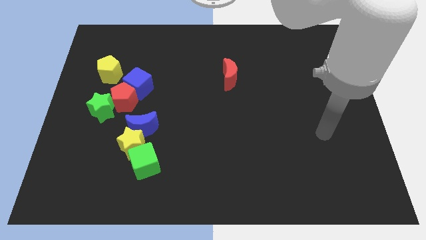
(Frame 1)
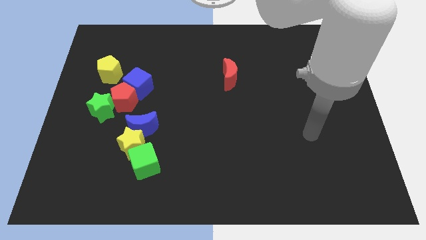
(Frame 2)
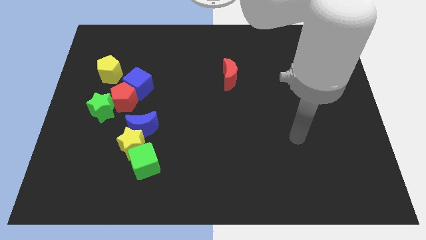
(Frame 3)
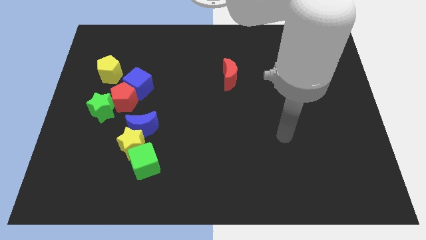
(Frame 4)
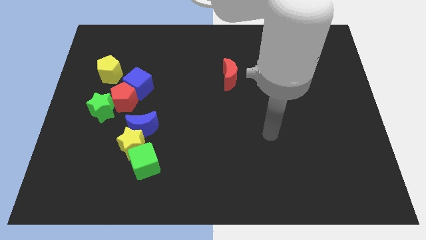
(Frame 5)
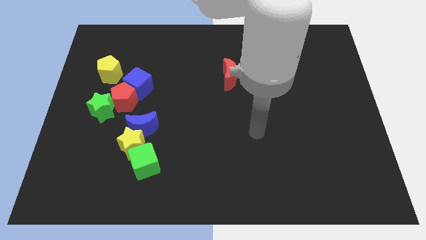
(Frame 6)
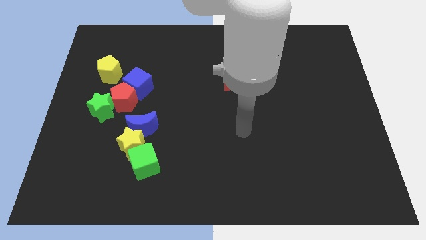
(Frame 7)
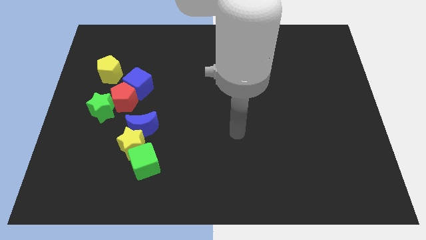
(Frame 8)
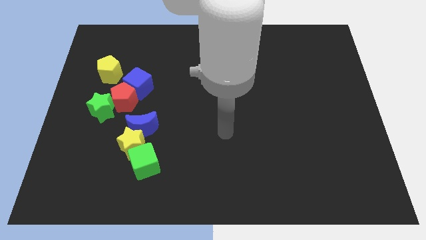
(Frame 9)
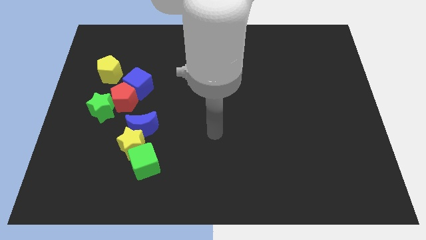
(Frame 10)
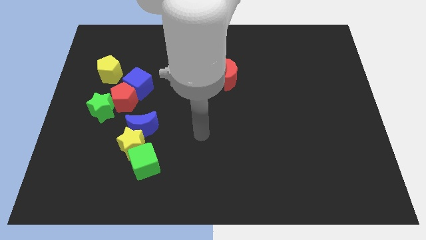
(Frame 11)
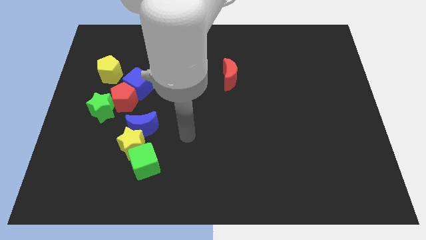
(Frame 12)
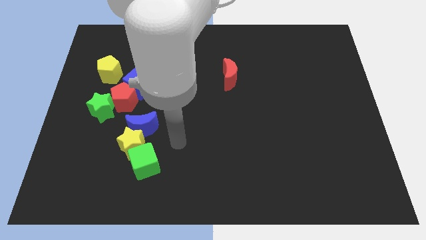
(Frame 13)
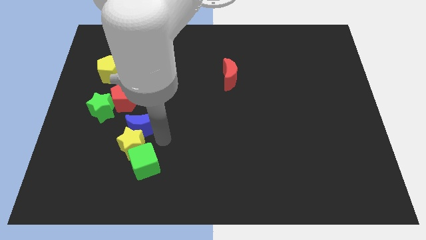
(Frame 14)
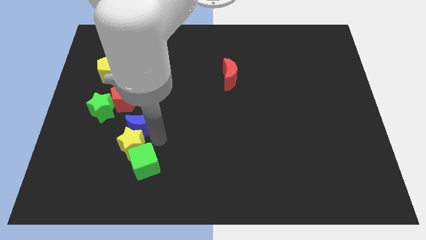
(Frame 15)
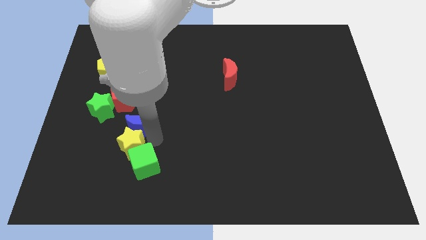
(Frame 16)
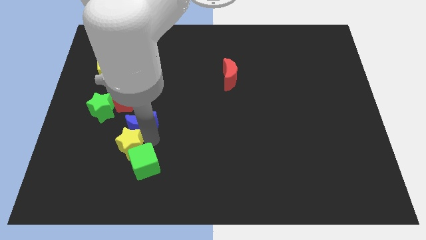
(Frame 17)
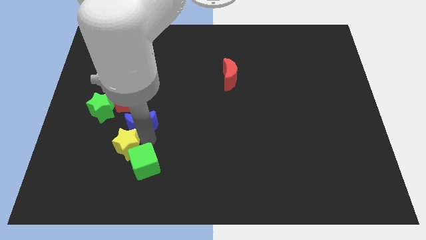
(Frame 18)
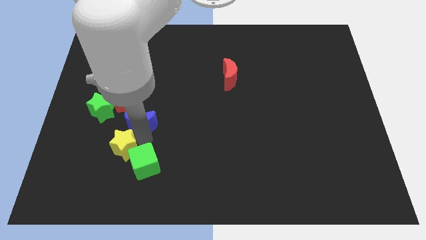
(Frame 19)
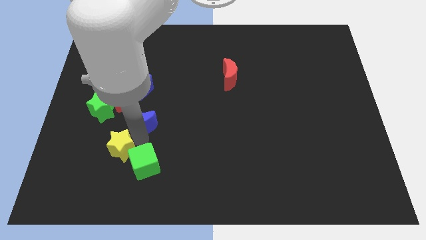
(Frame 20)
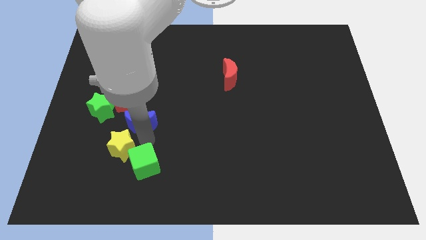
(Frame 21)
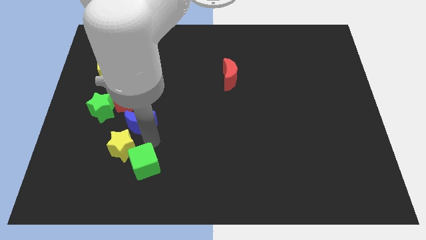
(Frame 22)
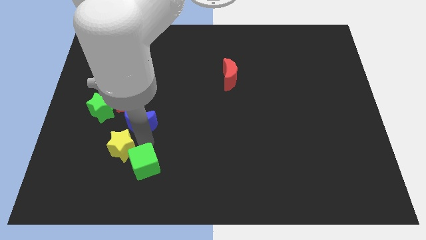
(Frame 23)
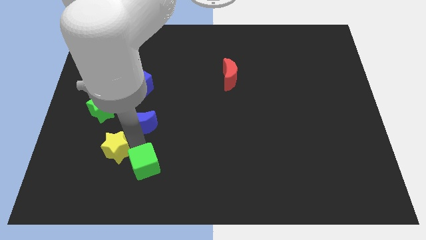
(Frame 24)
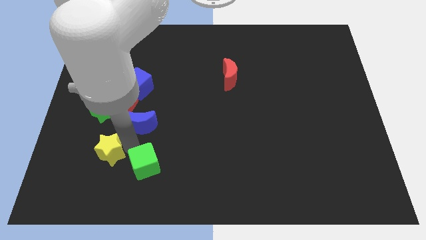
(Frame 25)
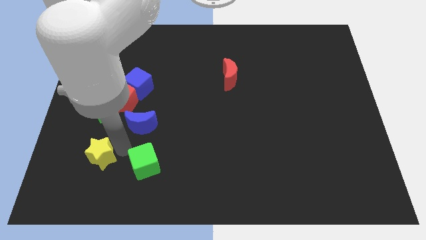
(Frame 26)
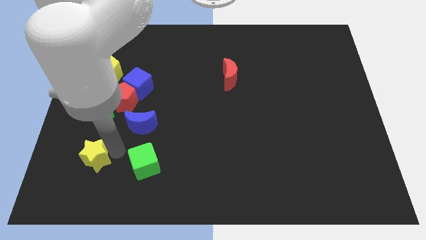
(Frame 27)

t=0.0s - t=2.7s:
pull the yellow star apart from the blue moon and green cube

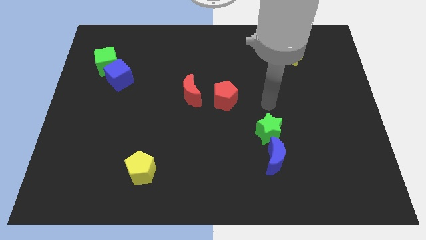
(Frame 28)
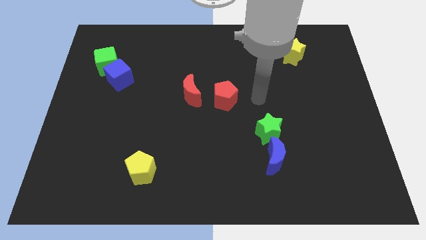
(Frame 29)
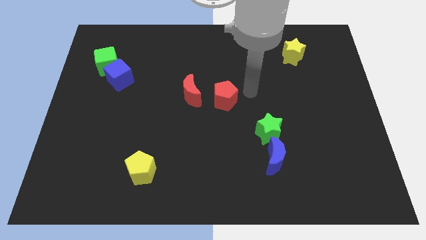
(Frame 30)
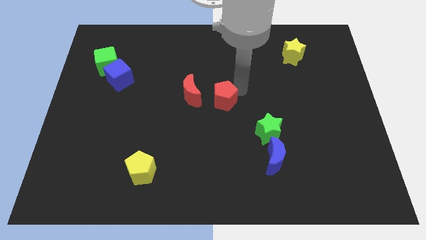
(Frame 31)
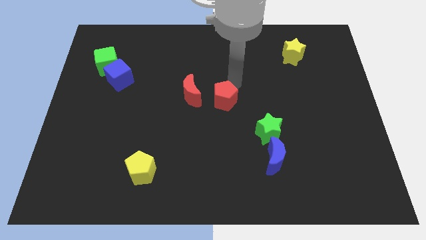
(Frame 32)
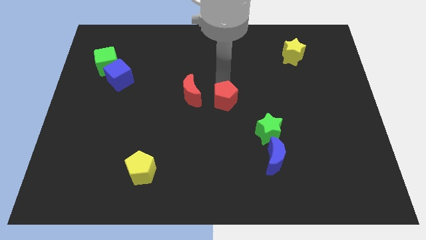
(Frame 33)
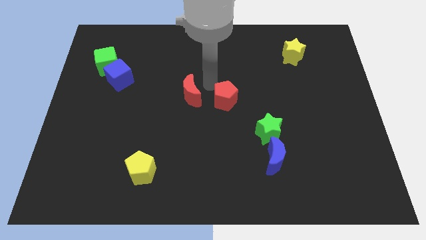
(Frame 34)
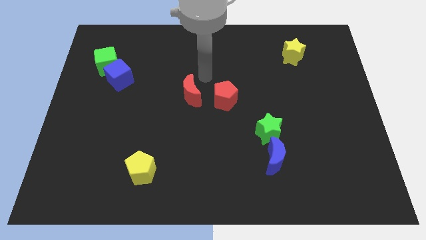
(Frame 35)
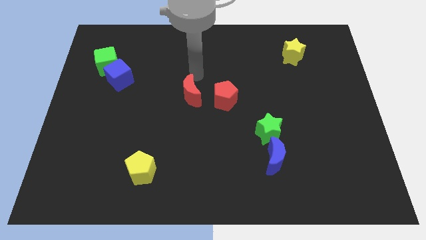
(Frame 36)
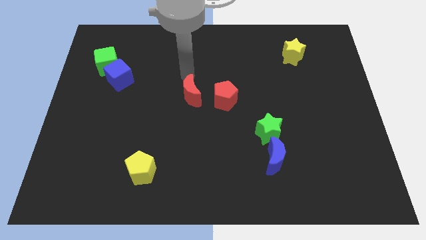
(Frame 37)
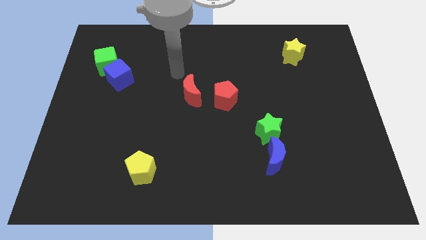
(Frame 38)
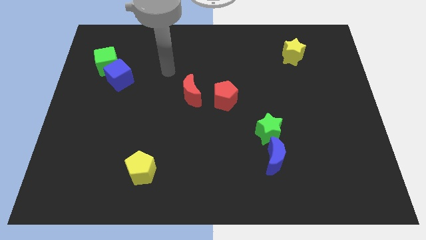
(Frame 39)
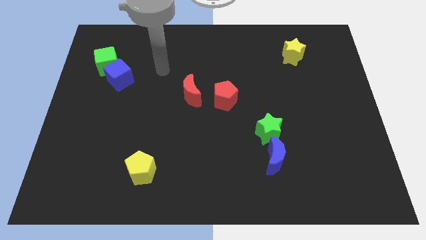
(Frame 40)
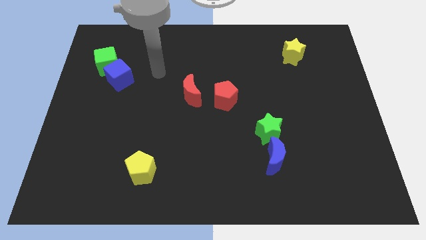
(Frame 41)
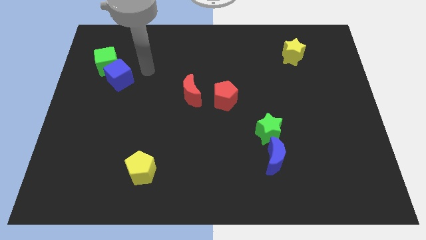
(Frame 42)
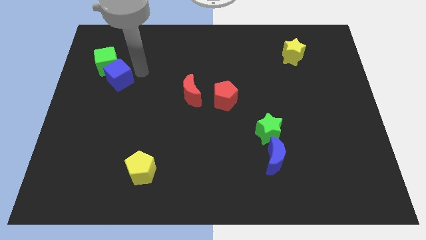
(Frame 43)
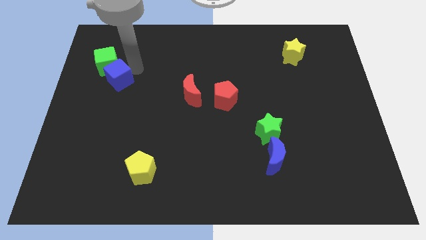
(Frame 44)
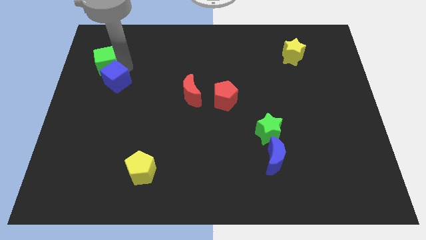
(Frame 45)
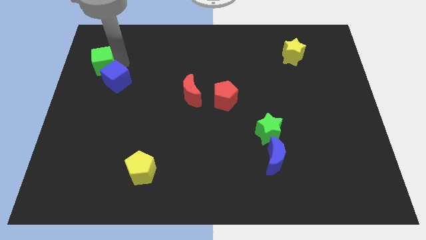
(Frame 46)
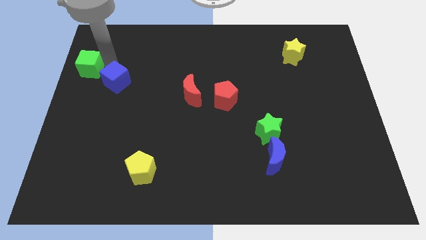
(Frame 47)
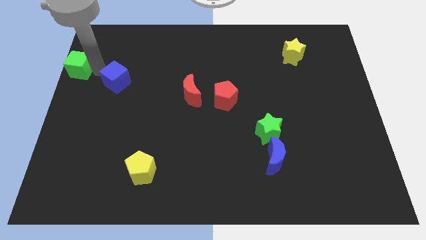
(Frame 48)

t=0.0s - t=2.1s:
separate the blue cube from the green cube

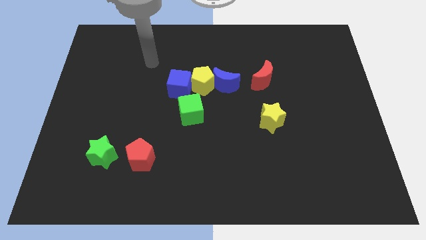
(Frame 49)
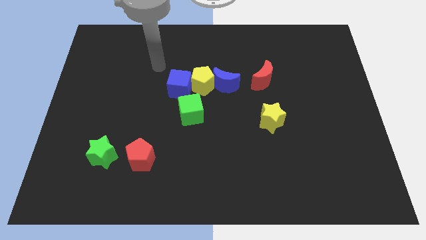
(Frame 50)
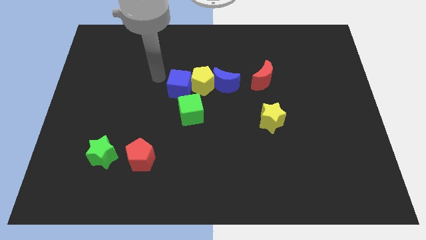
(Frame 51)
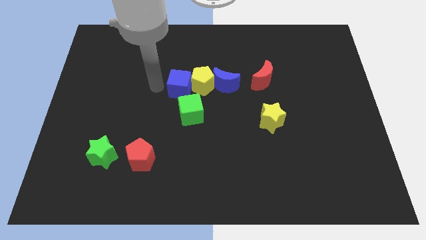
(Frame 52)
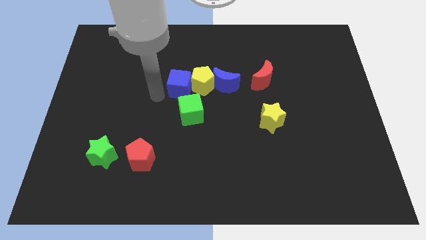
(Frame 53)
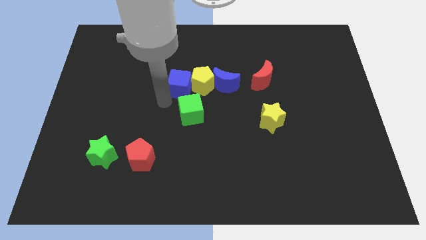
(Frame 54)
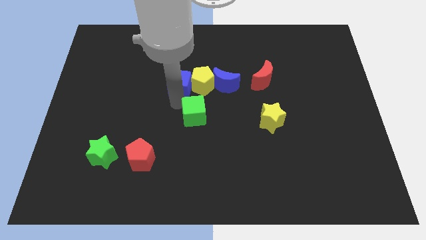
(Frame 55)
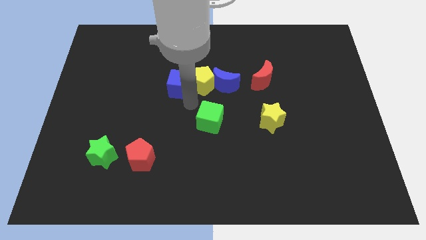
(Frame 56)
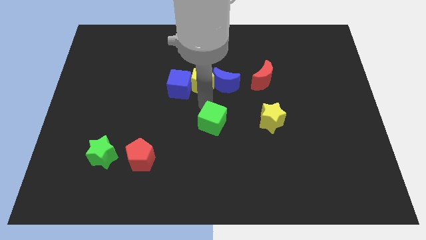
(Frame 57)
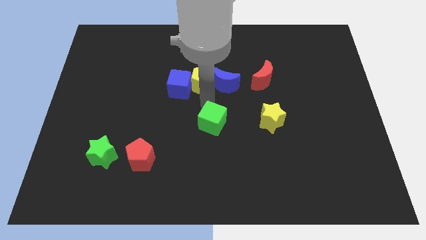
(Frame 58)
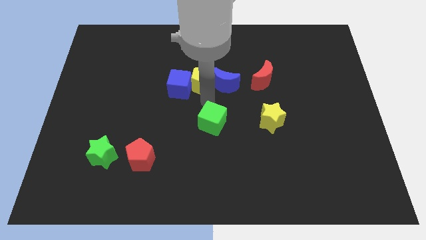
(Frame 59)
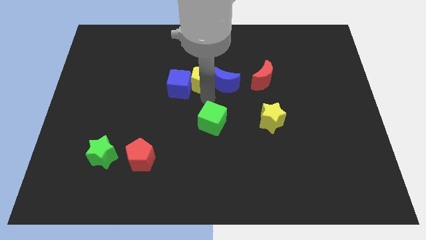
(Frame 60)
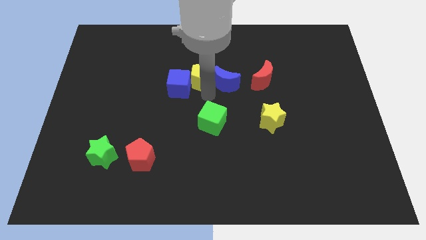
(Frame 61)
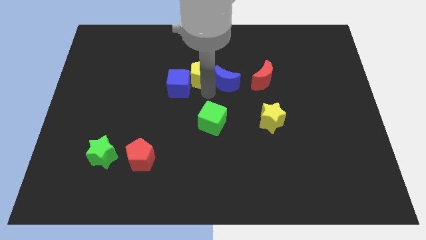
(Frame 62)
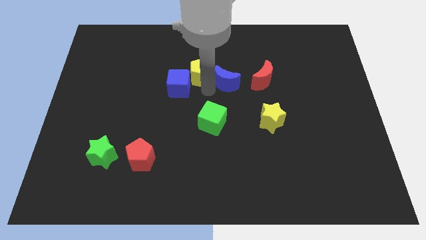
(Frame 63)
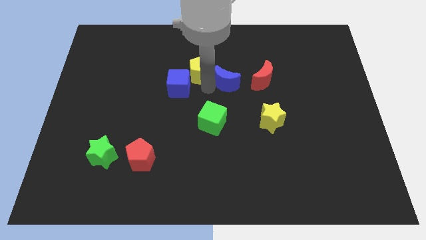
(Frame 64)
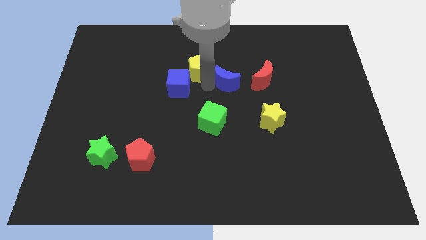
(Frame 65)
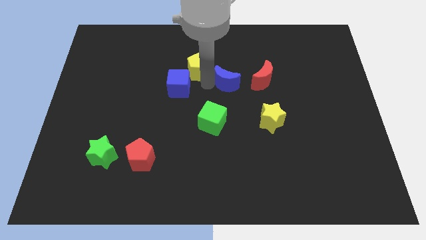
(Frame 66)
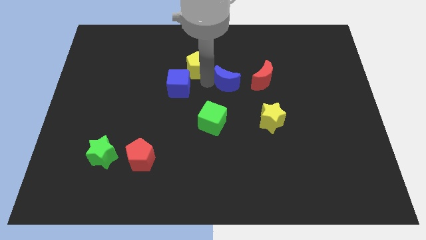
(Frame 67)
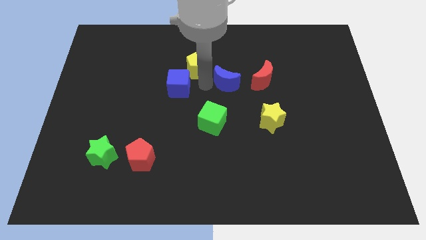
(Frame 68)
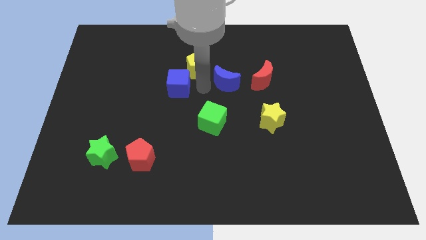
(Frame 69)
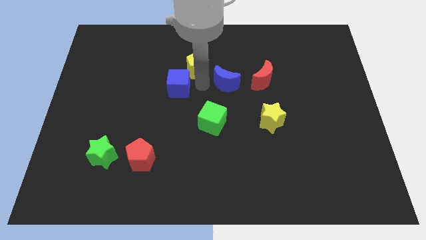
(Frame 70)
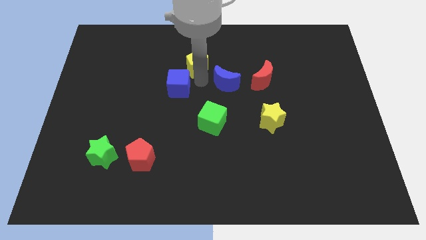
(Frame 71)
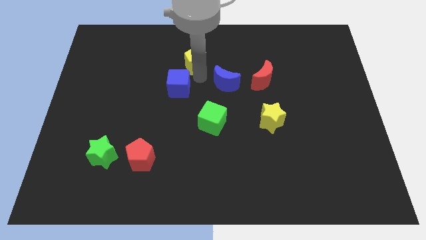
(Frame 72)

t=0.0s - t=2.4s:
separate the yellow pentagon from the blue cube, blue moon, and green cube

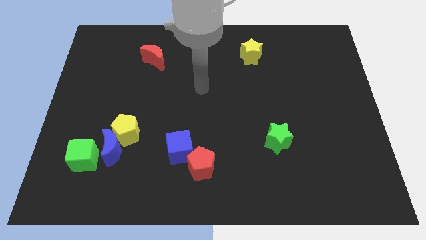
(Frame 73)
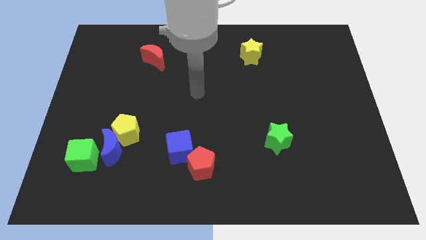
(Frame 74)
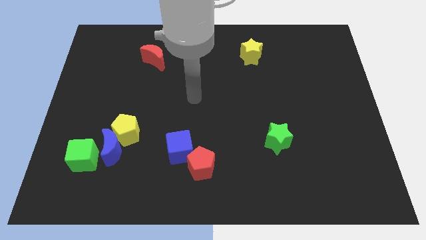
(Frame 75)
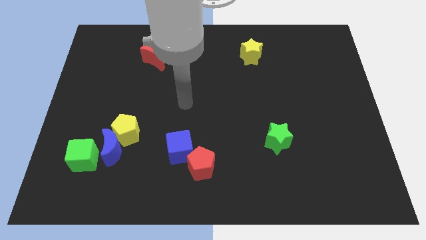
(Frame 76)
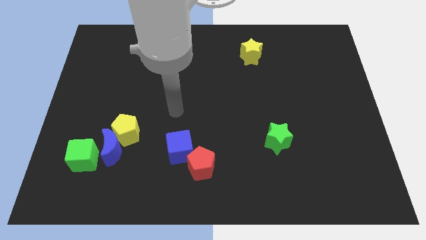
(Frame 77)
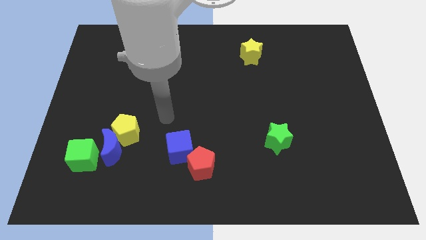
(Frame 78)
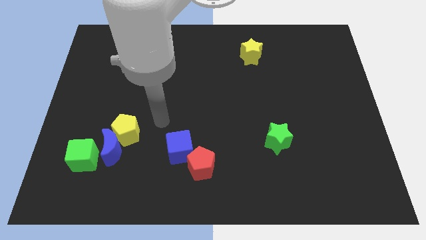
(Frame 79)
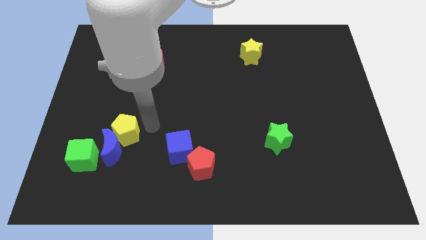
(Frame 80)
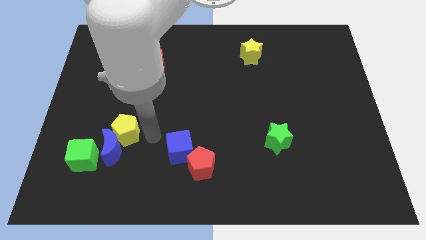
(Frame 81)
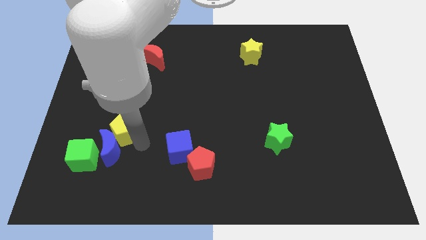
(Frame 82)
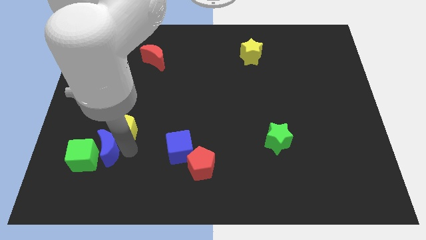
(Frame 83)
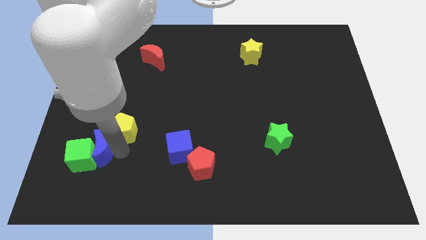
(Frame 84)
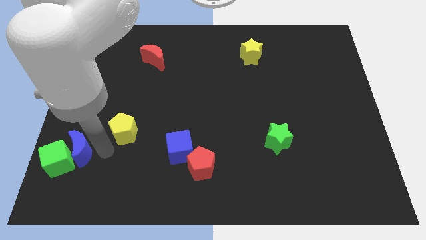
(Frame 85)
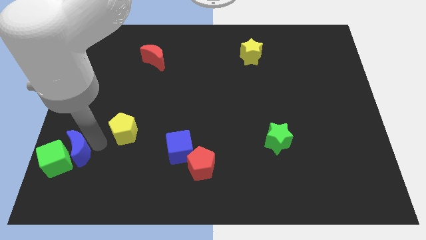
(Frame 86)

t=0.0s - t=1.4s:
separate the yellow pentagon from the blue moon

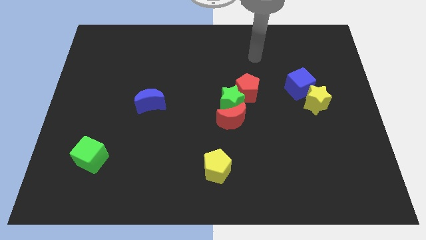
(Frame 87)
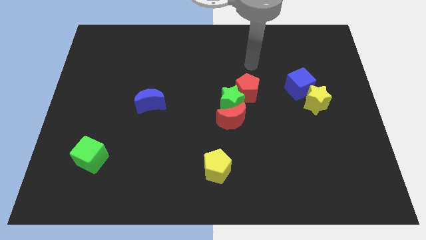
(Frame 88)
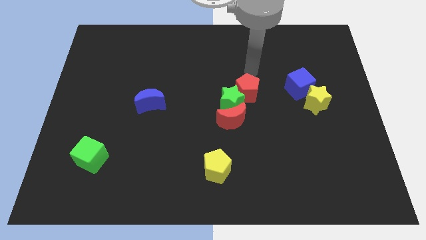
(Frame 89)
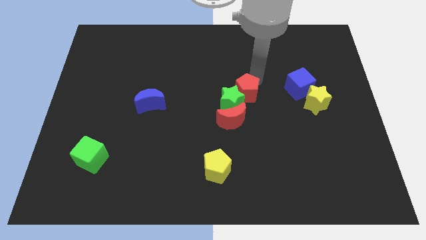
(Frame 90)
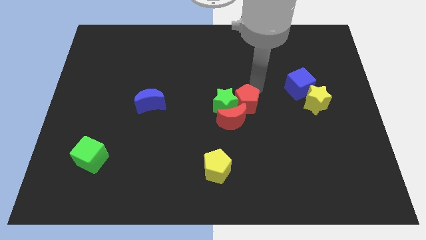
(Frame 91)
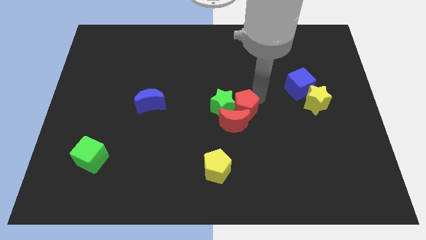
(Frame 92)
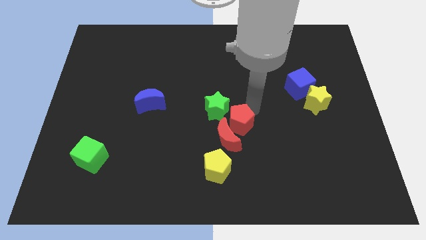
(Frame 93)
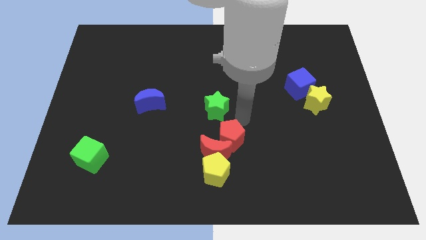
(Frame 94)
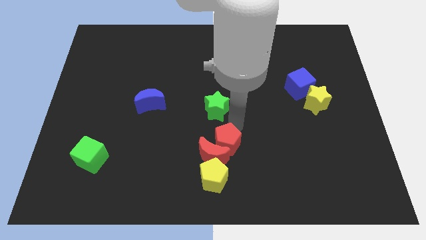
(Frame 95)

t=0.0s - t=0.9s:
pull the green star apart from the red moon and red pentagon
